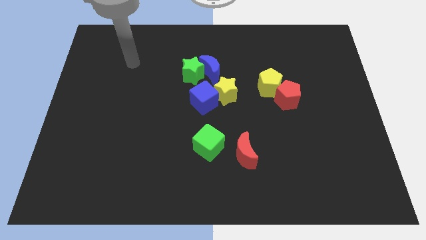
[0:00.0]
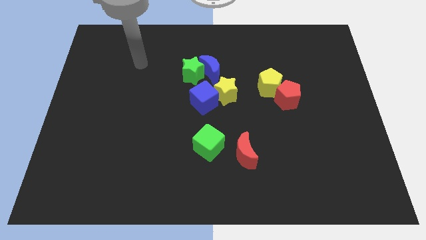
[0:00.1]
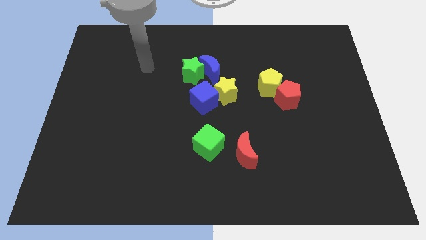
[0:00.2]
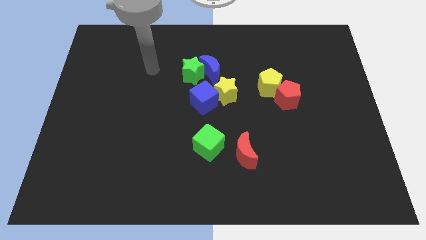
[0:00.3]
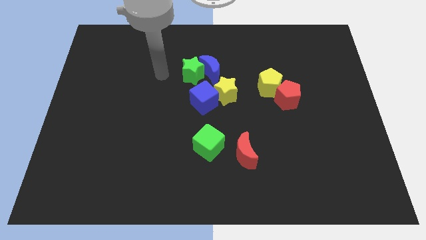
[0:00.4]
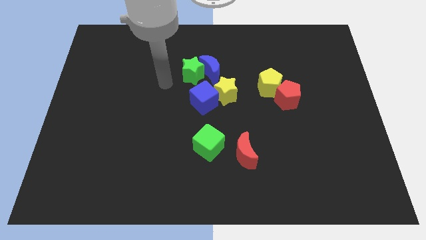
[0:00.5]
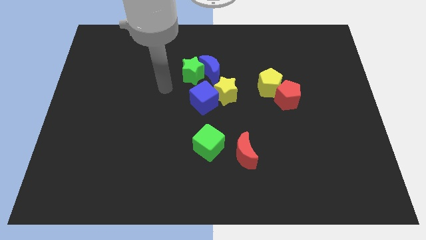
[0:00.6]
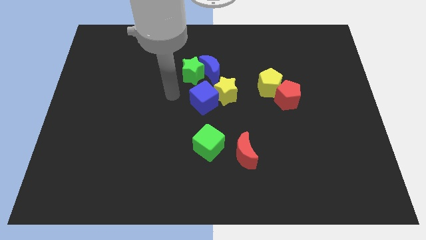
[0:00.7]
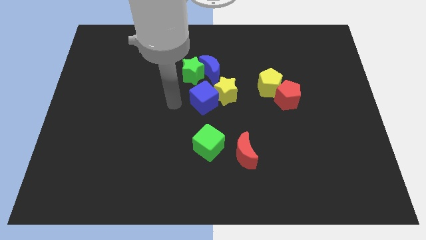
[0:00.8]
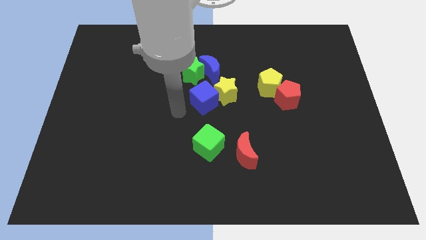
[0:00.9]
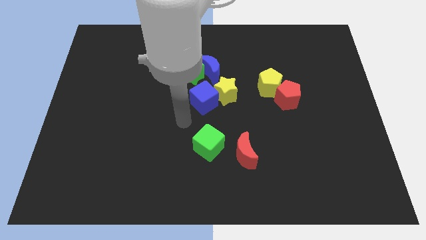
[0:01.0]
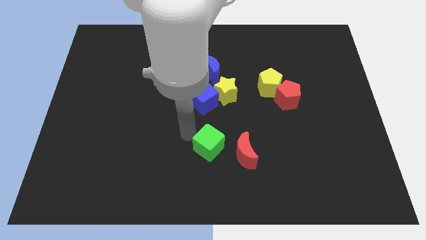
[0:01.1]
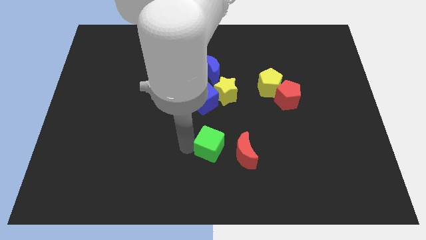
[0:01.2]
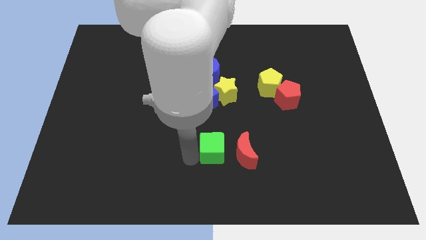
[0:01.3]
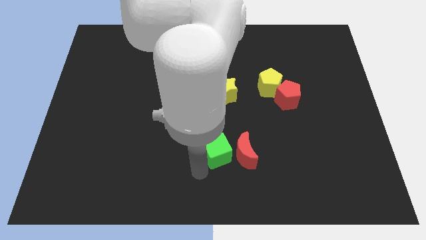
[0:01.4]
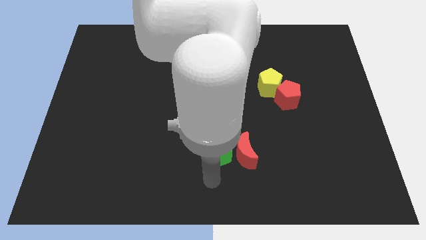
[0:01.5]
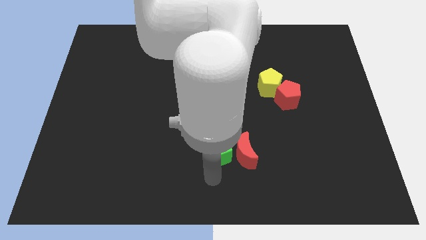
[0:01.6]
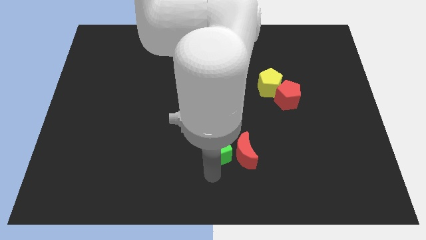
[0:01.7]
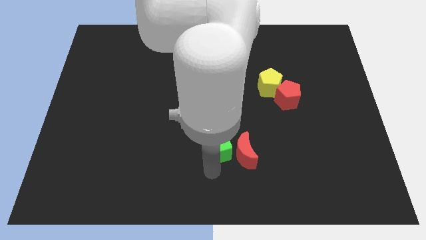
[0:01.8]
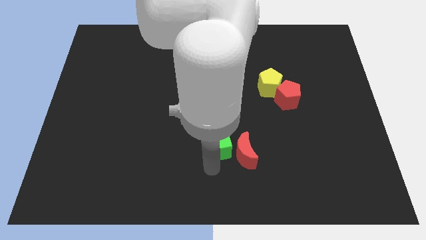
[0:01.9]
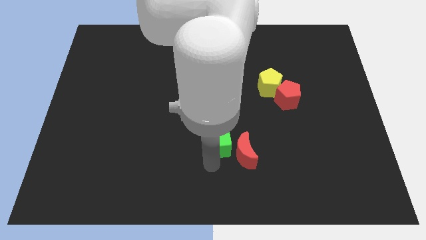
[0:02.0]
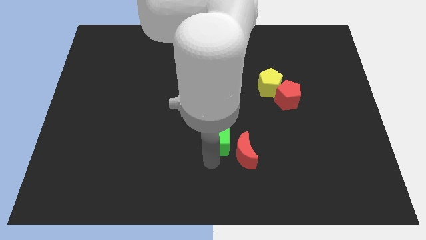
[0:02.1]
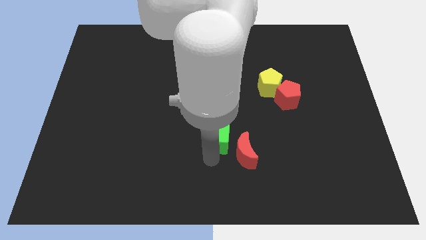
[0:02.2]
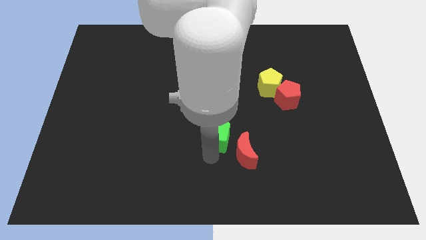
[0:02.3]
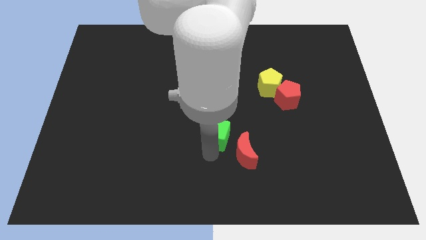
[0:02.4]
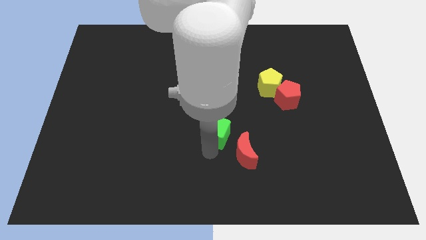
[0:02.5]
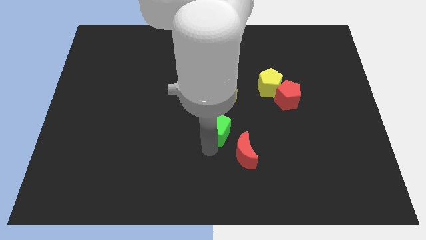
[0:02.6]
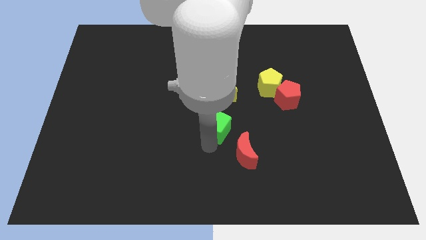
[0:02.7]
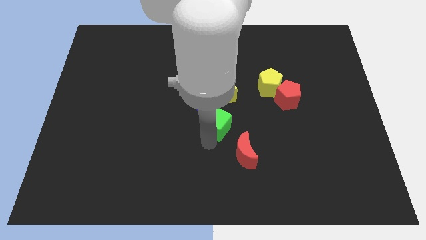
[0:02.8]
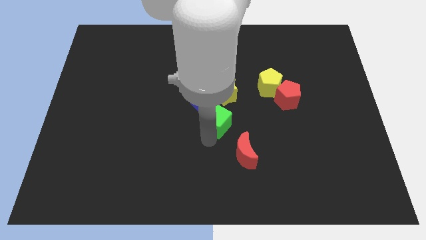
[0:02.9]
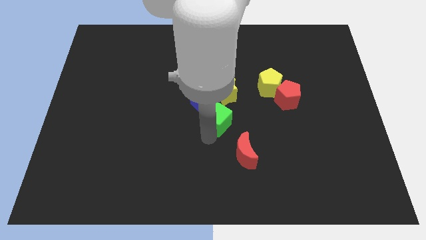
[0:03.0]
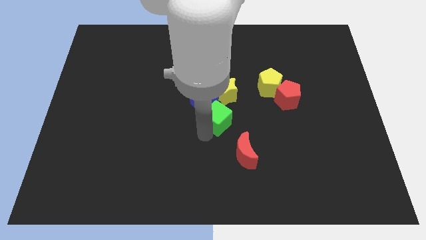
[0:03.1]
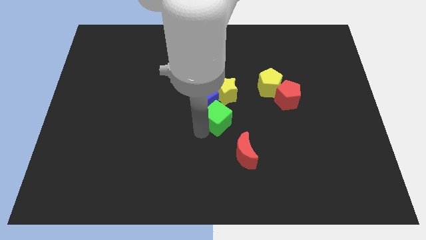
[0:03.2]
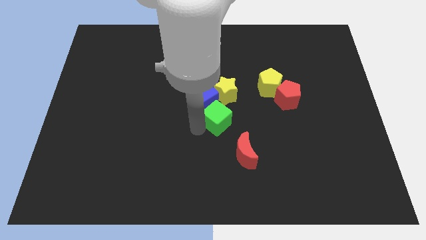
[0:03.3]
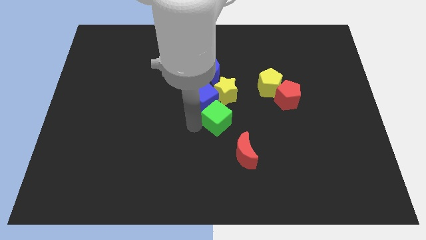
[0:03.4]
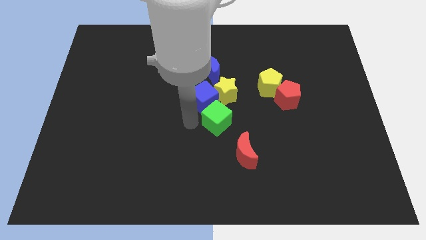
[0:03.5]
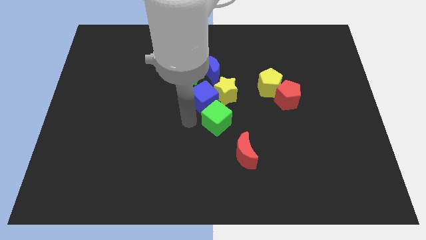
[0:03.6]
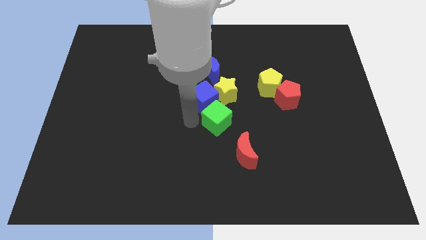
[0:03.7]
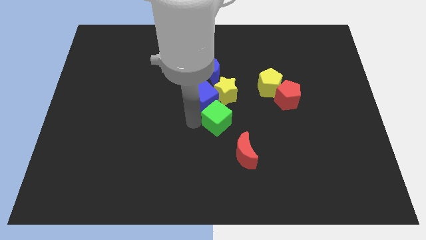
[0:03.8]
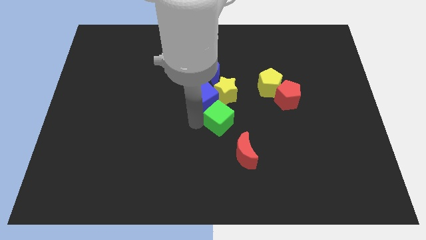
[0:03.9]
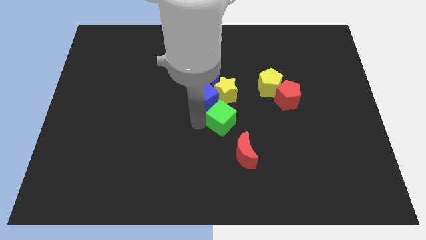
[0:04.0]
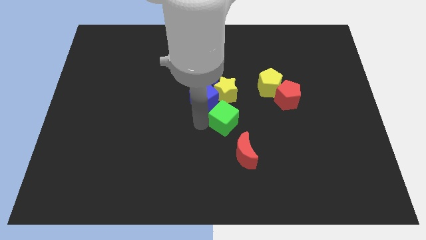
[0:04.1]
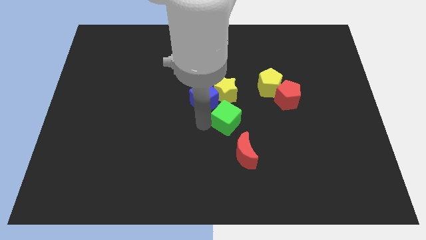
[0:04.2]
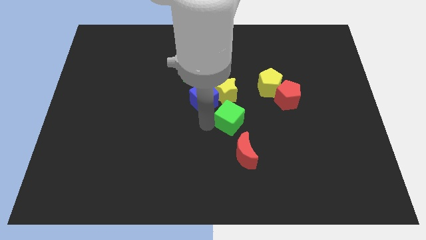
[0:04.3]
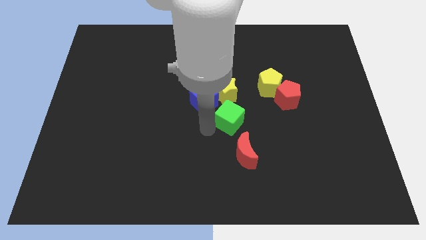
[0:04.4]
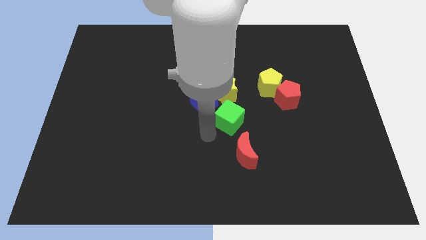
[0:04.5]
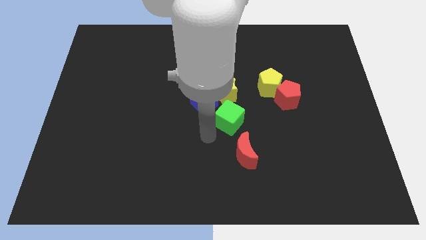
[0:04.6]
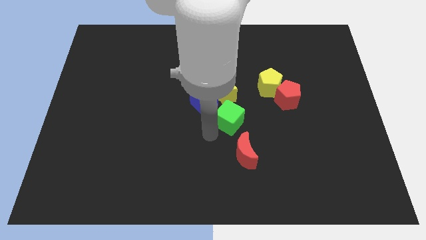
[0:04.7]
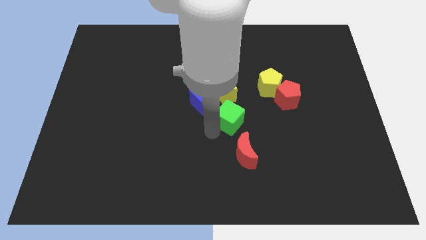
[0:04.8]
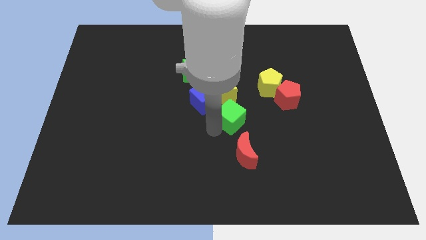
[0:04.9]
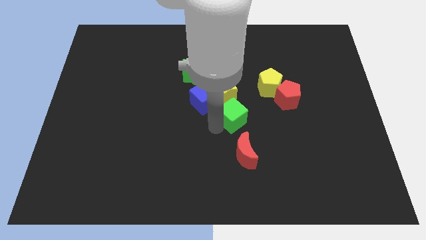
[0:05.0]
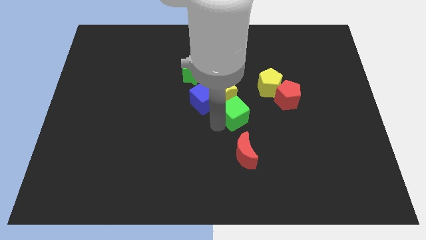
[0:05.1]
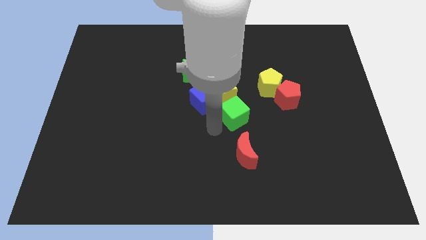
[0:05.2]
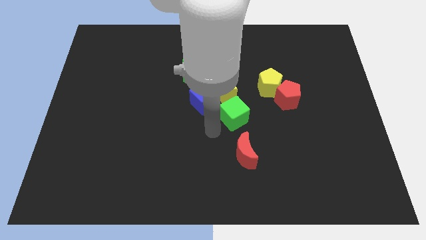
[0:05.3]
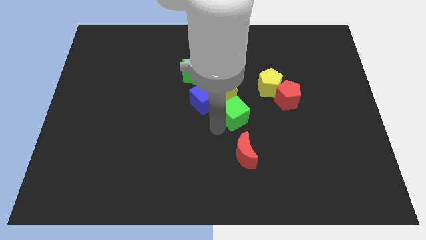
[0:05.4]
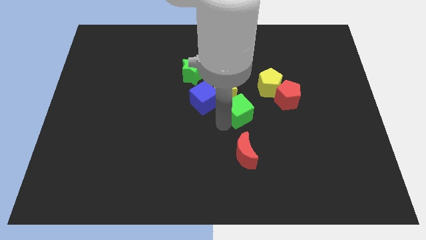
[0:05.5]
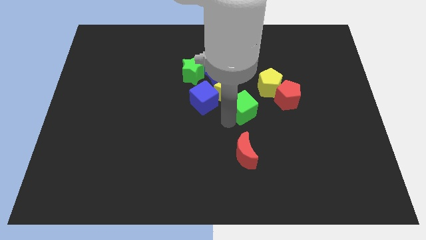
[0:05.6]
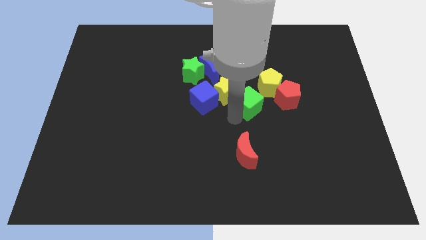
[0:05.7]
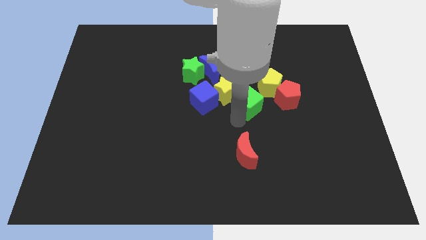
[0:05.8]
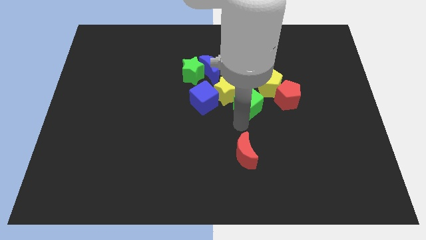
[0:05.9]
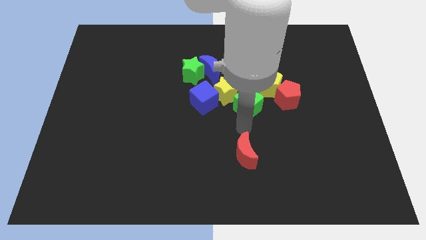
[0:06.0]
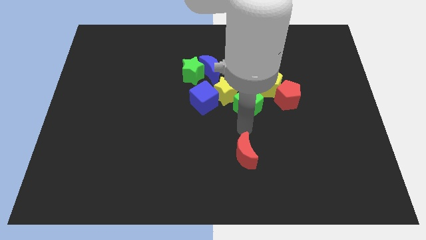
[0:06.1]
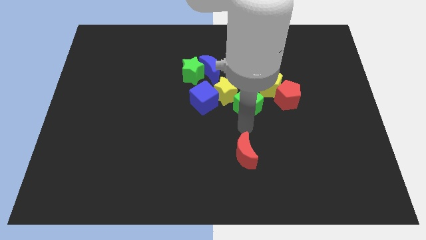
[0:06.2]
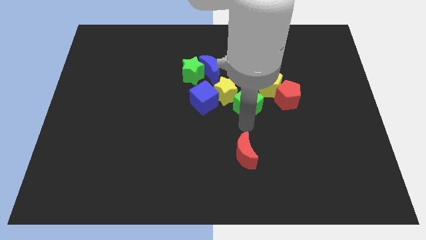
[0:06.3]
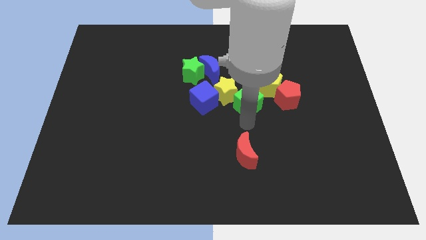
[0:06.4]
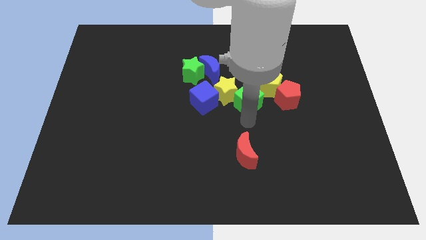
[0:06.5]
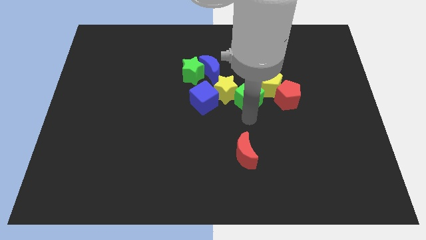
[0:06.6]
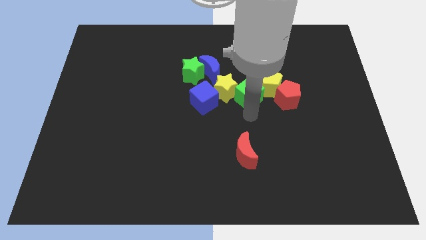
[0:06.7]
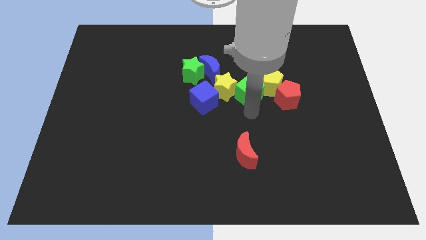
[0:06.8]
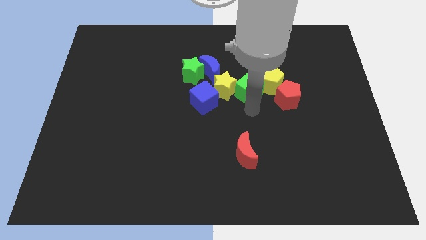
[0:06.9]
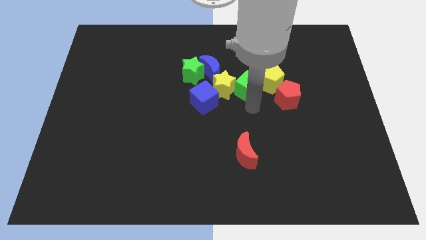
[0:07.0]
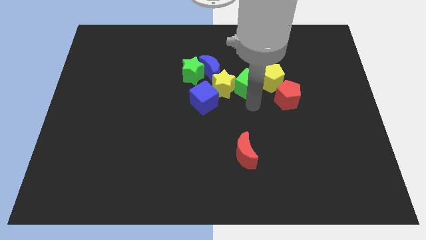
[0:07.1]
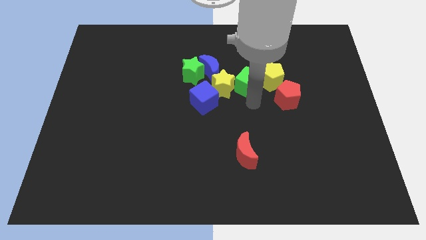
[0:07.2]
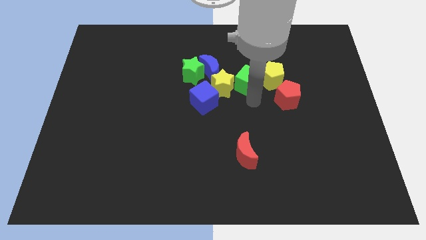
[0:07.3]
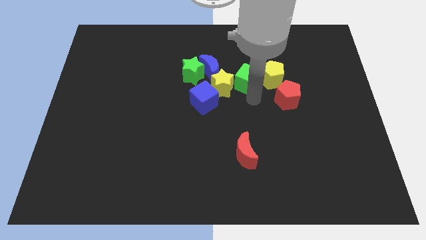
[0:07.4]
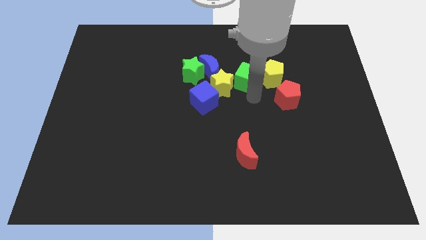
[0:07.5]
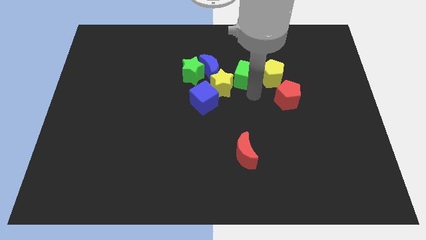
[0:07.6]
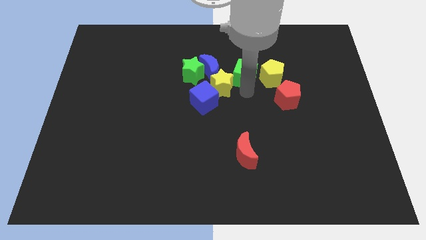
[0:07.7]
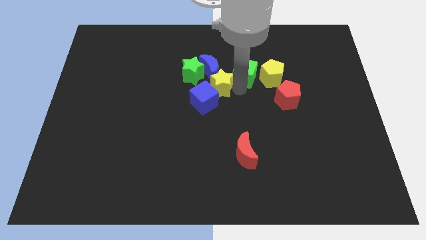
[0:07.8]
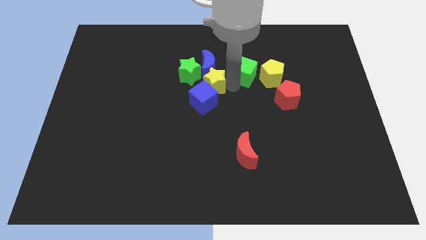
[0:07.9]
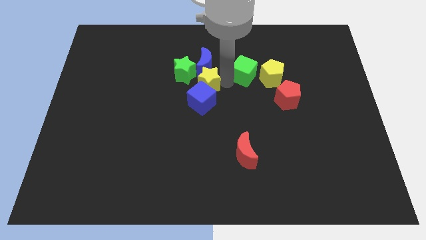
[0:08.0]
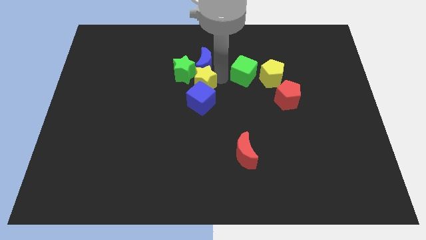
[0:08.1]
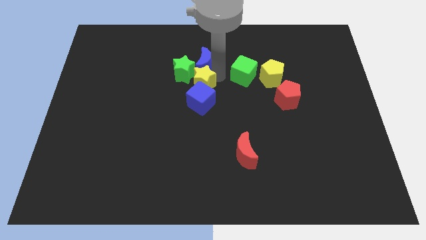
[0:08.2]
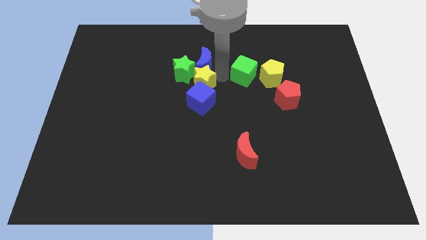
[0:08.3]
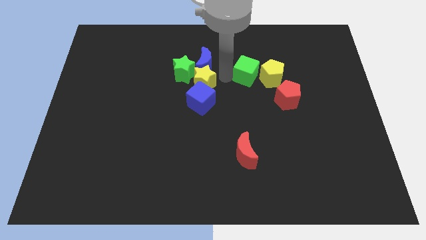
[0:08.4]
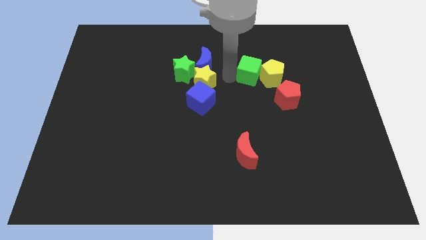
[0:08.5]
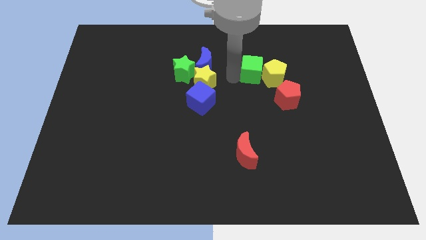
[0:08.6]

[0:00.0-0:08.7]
slide the green cube upwards and to the right
